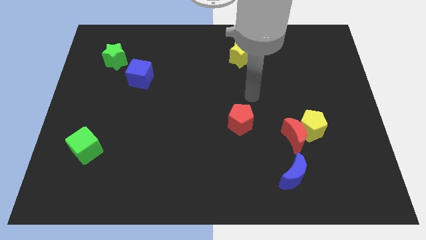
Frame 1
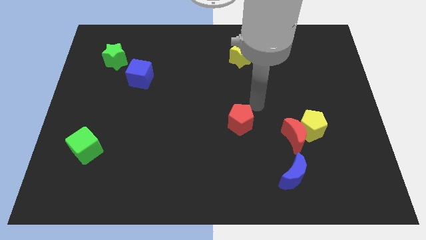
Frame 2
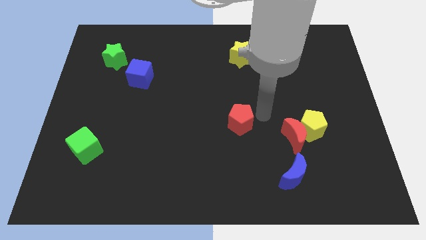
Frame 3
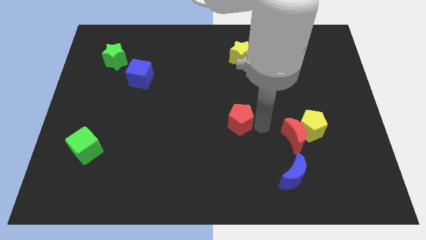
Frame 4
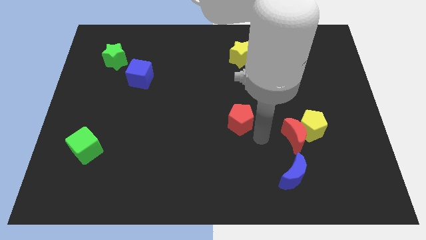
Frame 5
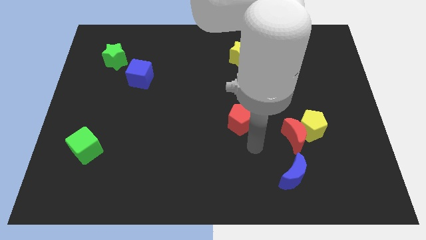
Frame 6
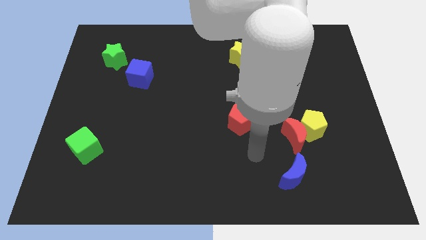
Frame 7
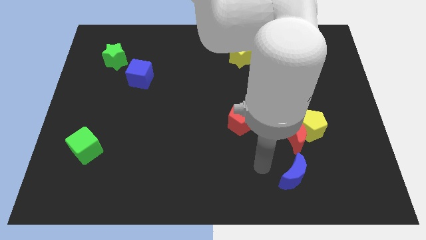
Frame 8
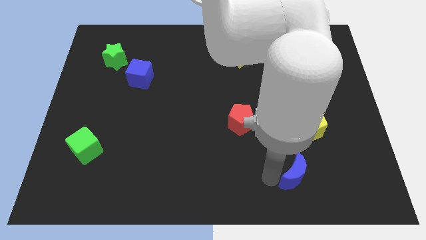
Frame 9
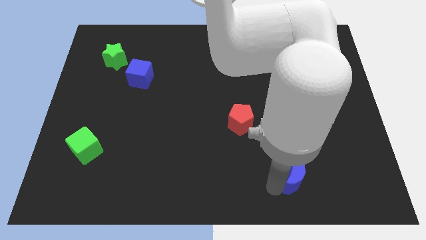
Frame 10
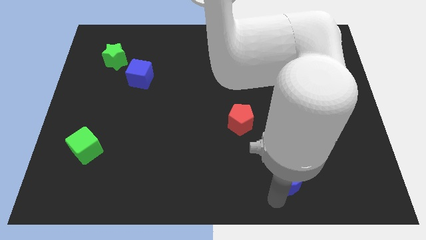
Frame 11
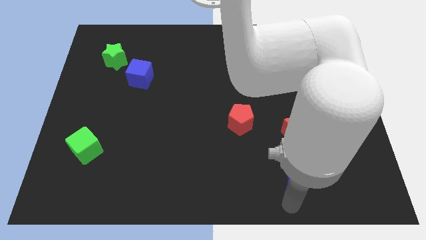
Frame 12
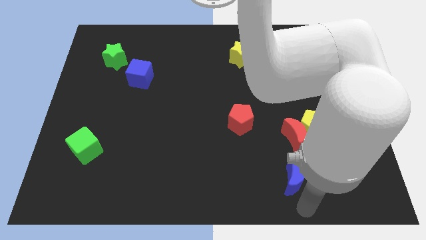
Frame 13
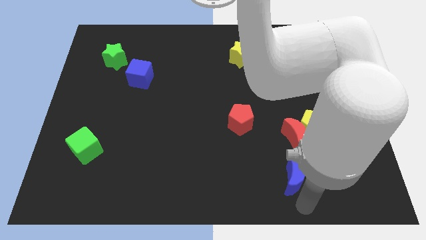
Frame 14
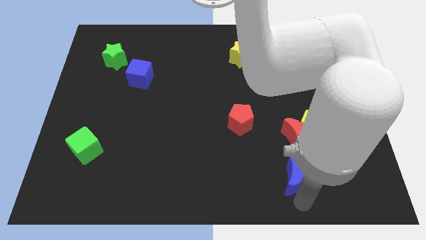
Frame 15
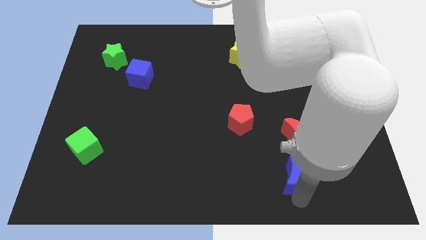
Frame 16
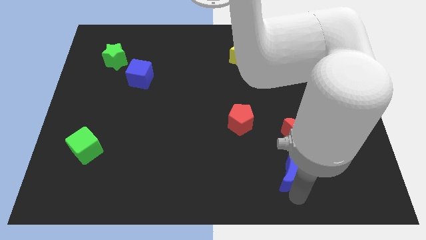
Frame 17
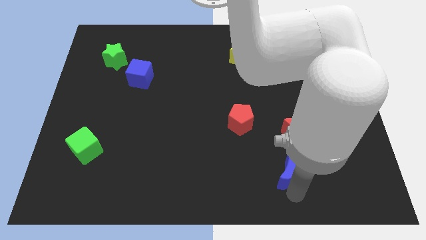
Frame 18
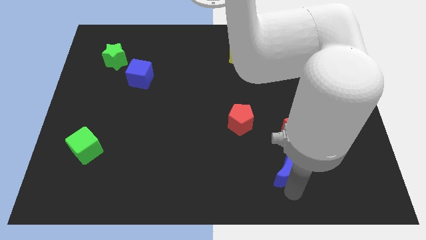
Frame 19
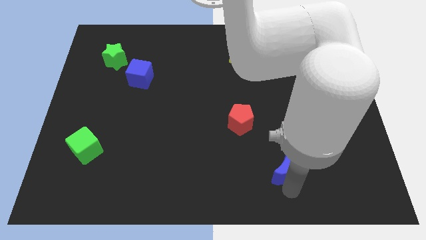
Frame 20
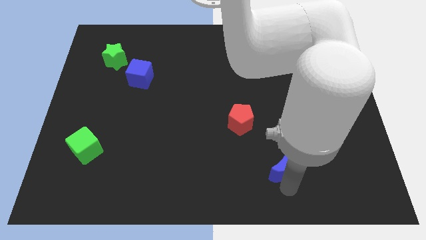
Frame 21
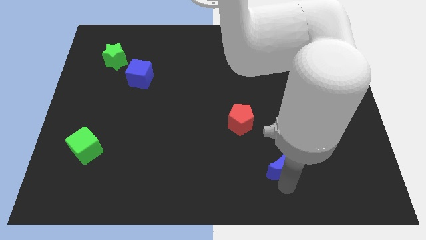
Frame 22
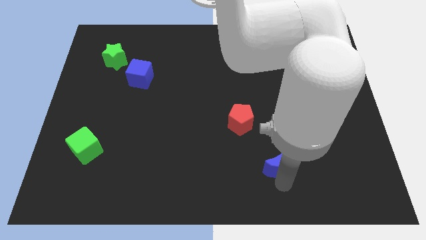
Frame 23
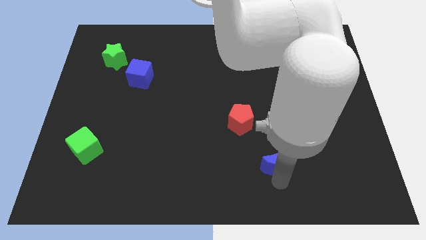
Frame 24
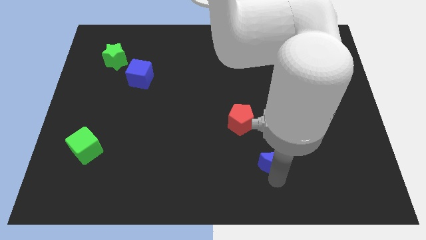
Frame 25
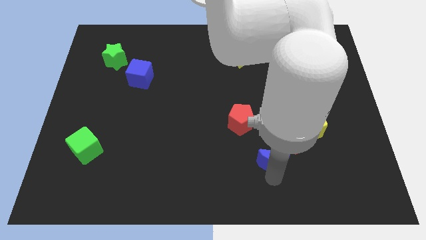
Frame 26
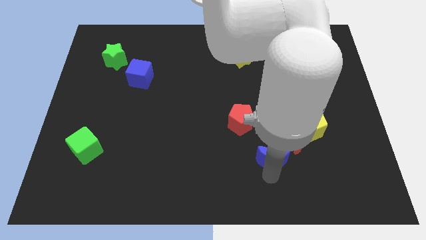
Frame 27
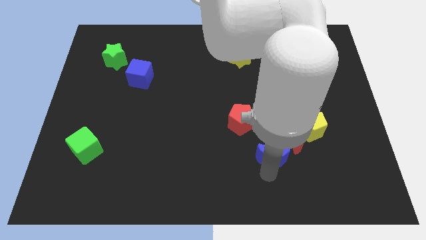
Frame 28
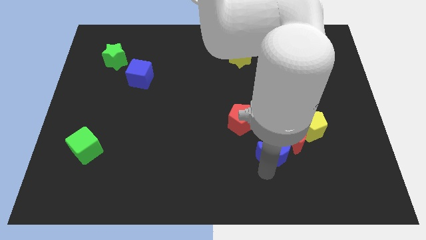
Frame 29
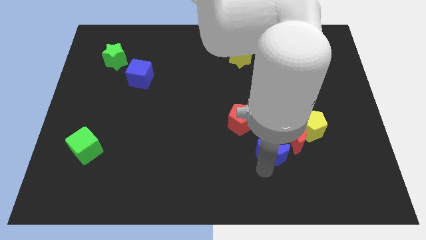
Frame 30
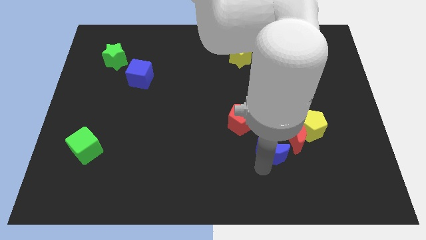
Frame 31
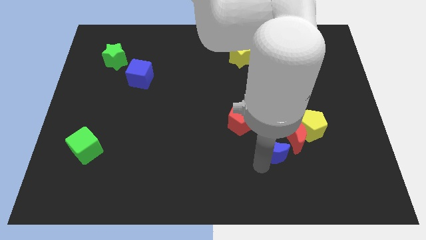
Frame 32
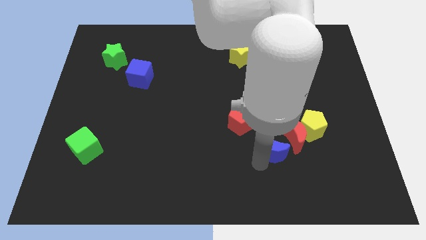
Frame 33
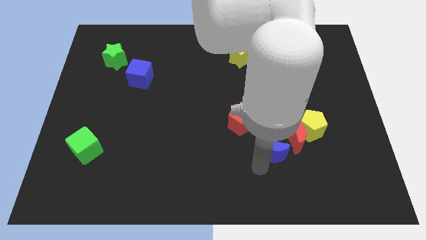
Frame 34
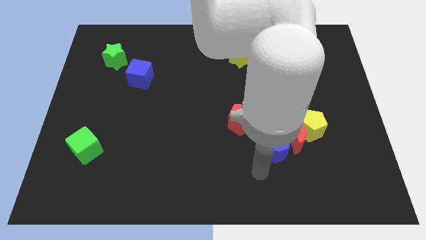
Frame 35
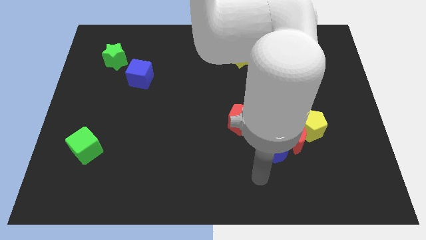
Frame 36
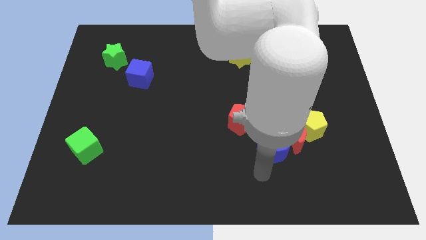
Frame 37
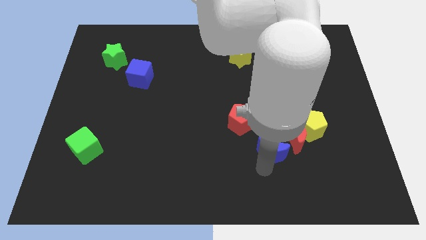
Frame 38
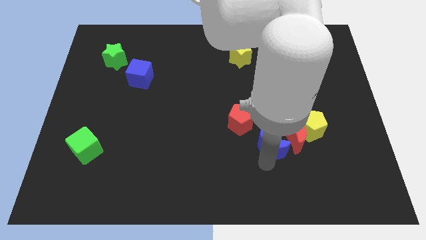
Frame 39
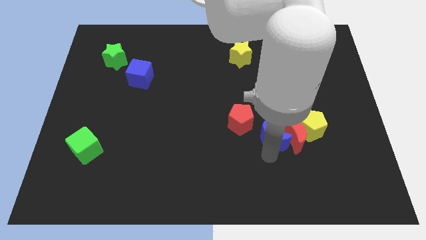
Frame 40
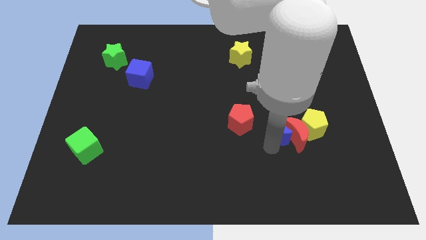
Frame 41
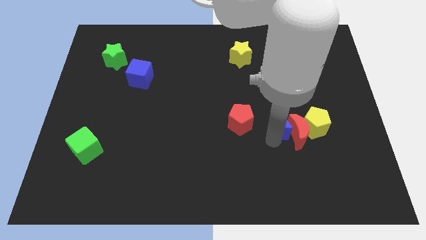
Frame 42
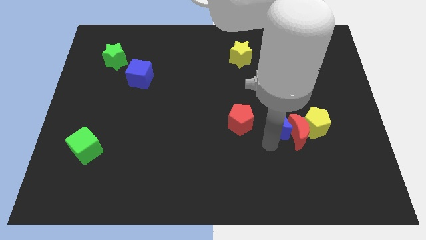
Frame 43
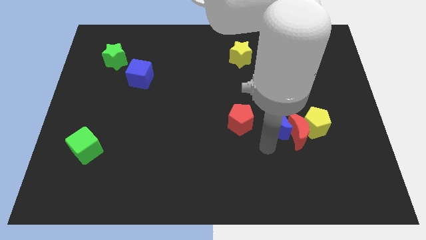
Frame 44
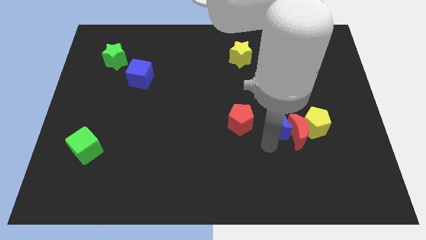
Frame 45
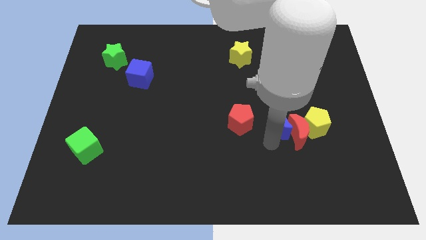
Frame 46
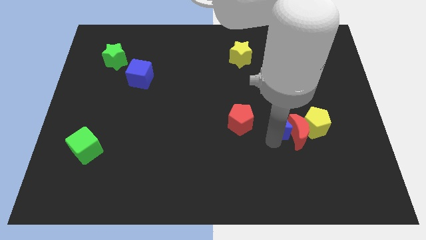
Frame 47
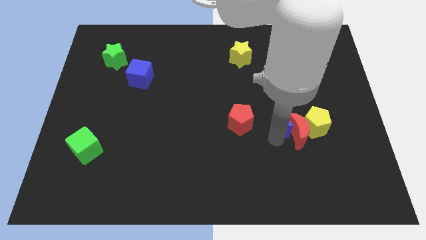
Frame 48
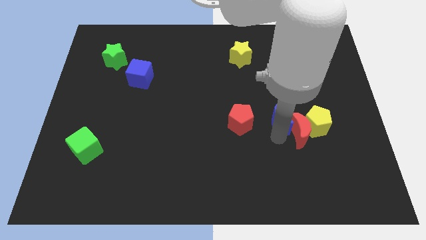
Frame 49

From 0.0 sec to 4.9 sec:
push the blue moon to the top left side of the yellow pentagon

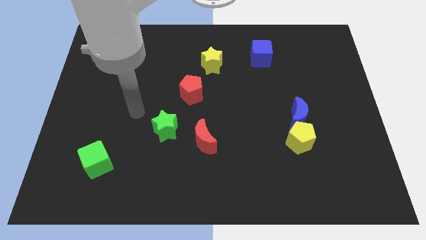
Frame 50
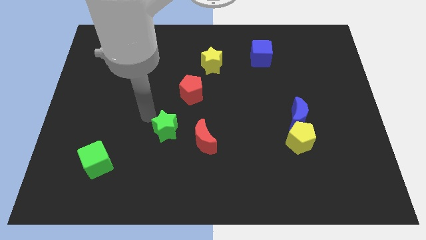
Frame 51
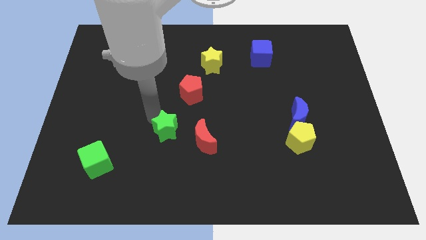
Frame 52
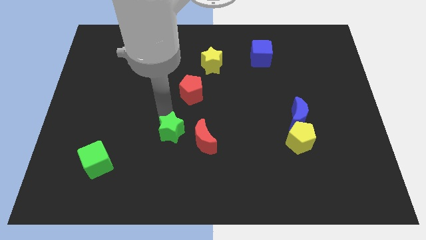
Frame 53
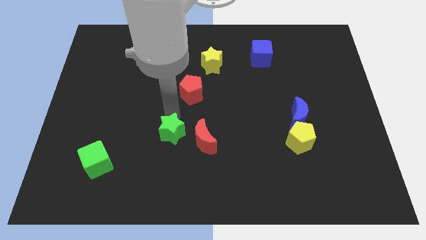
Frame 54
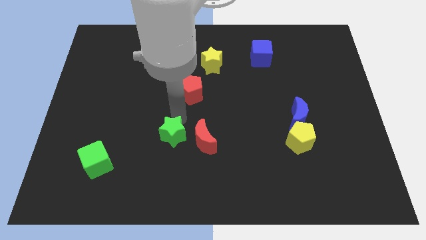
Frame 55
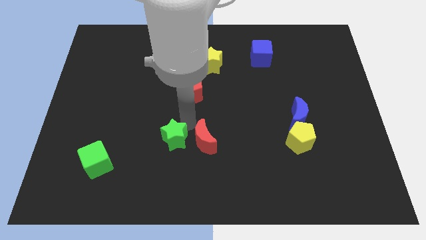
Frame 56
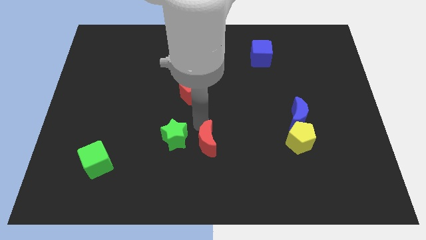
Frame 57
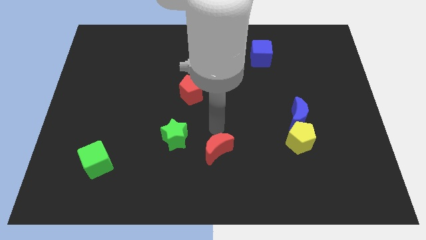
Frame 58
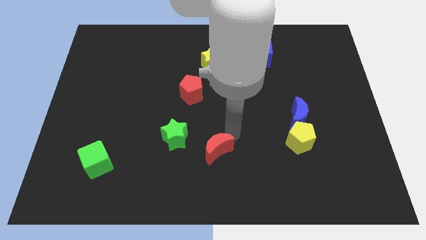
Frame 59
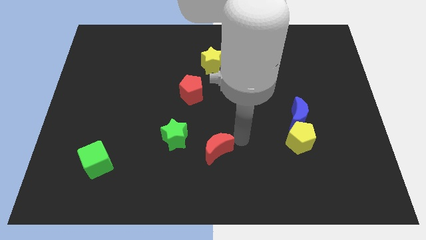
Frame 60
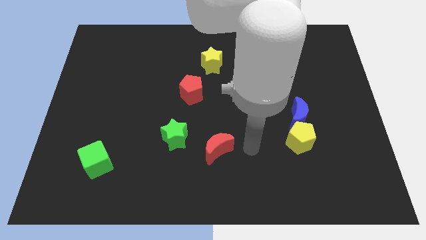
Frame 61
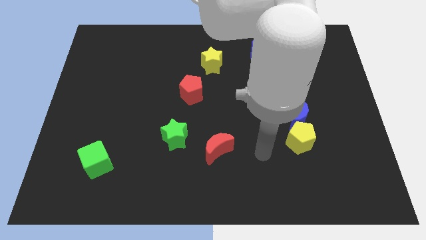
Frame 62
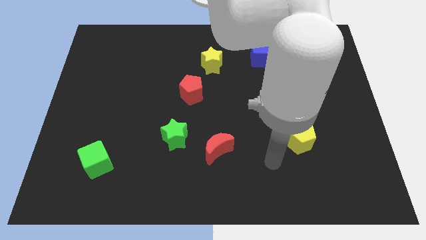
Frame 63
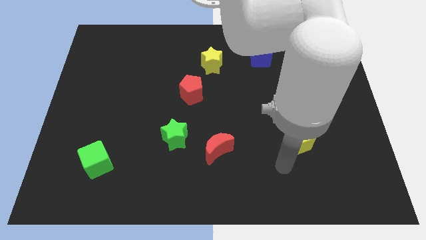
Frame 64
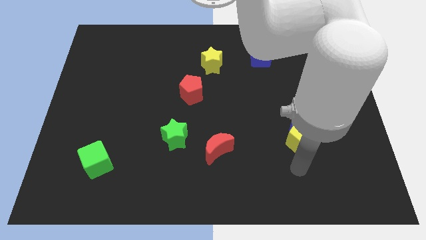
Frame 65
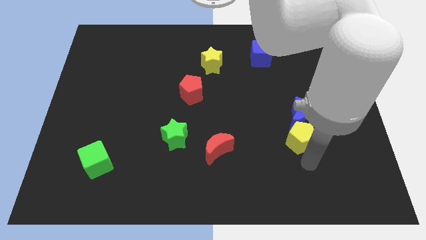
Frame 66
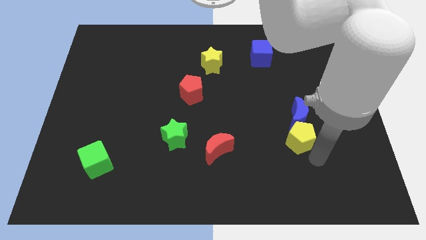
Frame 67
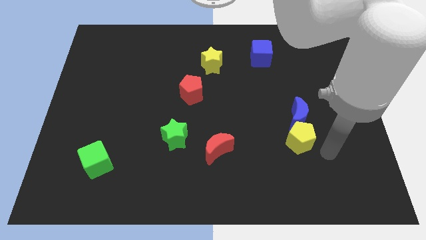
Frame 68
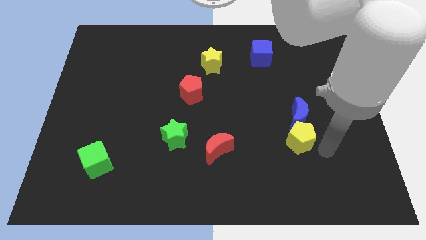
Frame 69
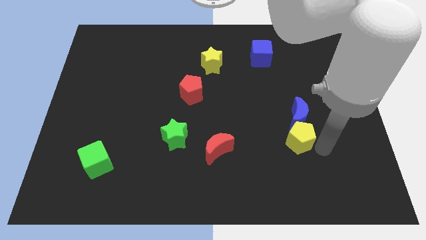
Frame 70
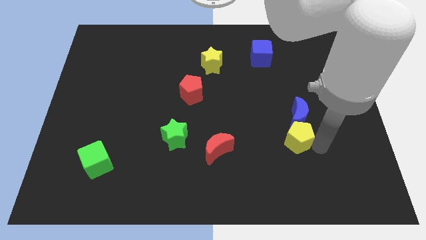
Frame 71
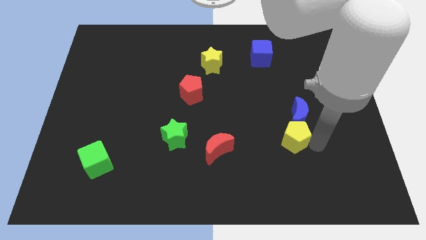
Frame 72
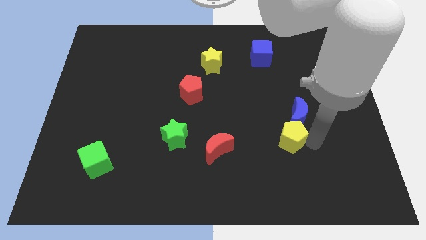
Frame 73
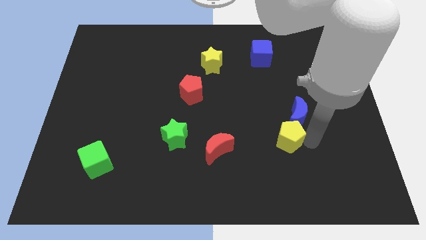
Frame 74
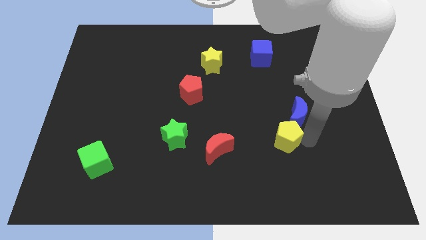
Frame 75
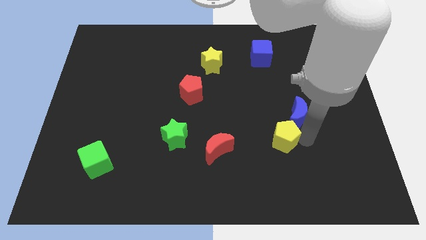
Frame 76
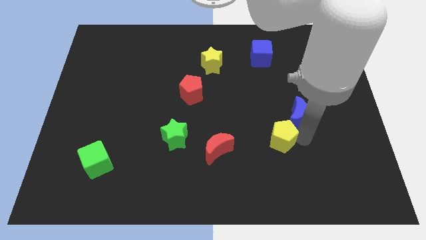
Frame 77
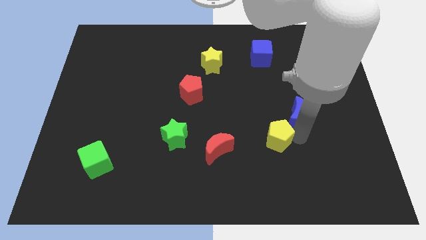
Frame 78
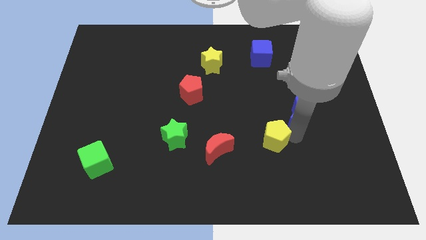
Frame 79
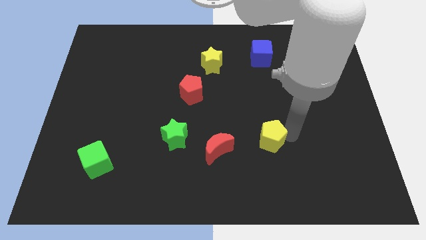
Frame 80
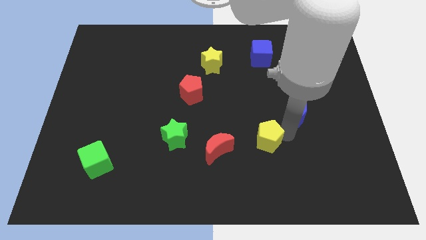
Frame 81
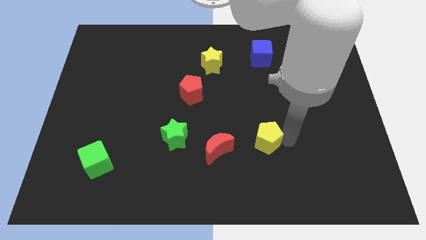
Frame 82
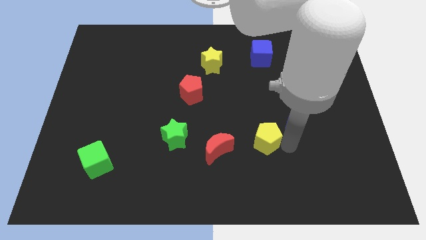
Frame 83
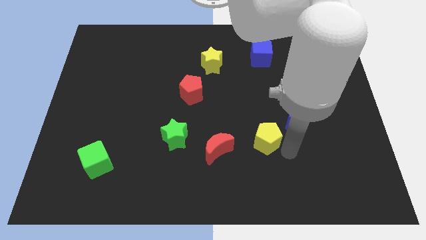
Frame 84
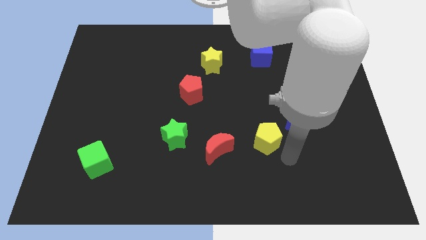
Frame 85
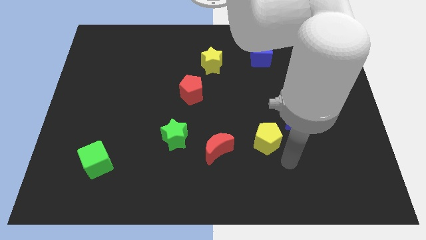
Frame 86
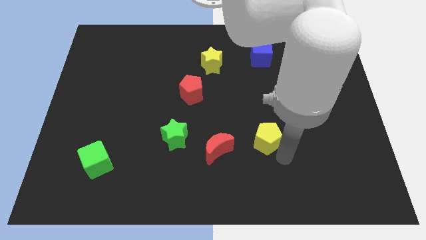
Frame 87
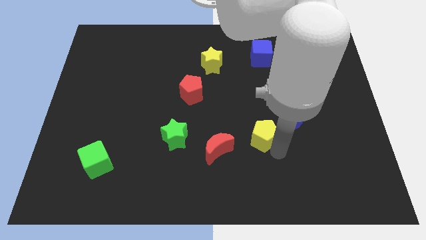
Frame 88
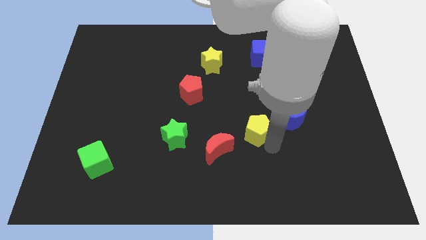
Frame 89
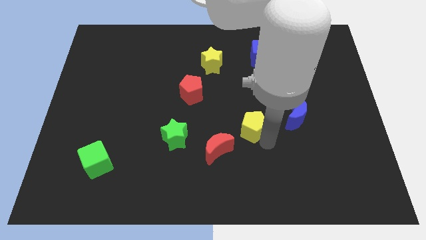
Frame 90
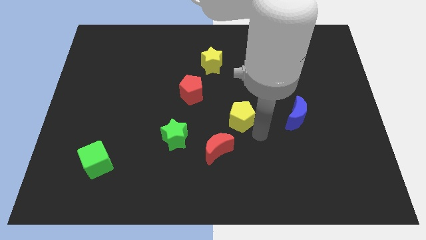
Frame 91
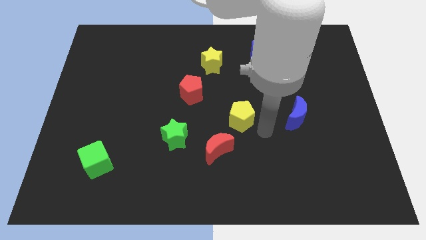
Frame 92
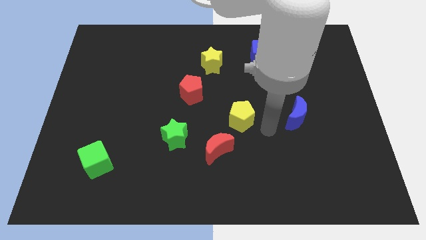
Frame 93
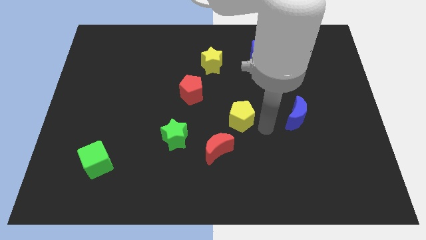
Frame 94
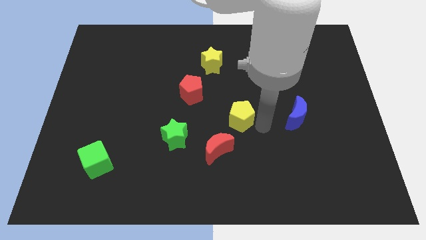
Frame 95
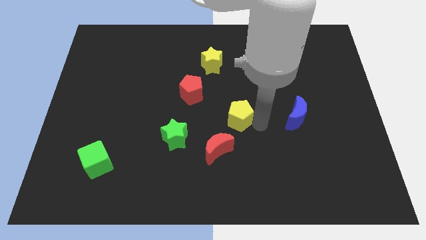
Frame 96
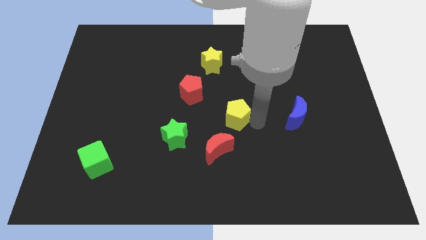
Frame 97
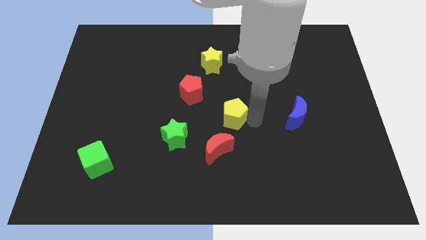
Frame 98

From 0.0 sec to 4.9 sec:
move the yellow pentagon to the bottom right of the red pentagon
